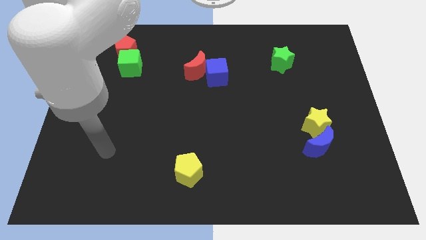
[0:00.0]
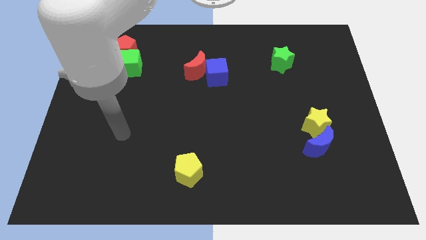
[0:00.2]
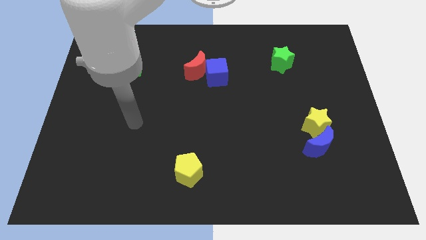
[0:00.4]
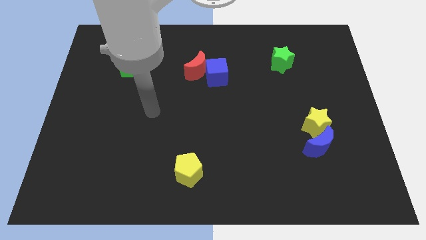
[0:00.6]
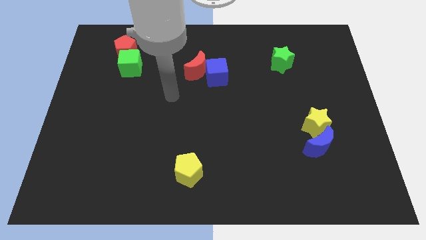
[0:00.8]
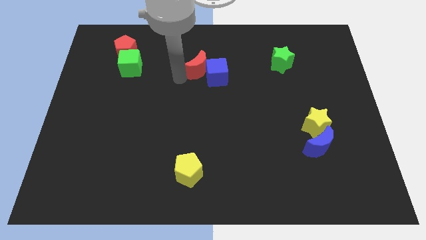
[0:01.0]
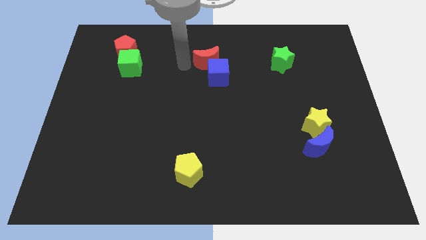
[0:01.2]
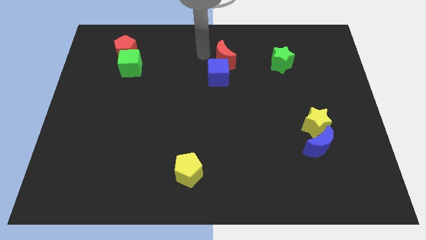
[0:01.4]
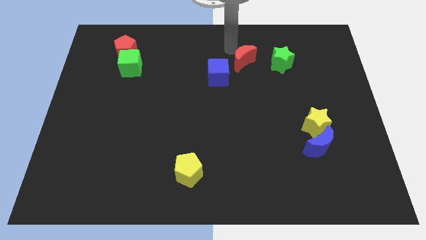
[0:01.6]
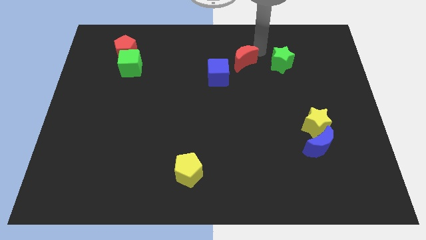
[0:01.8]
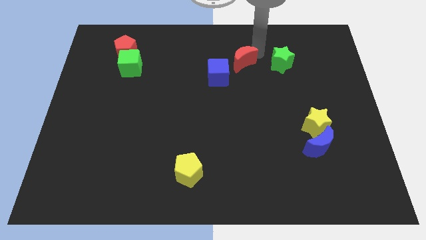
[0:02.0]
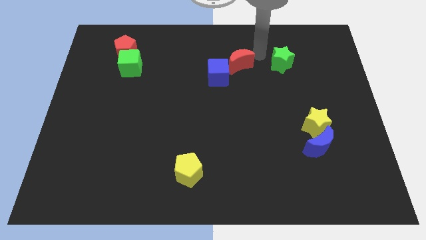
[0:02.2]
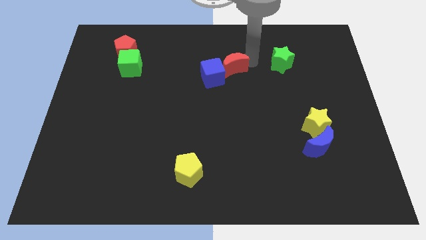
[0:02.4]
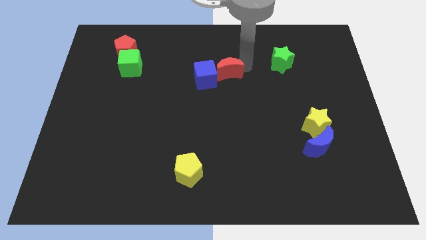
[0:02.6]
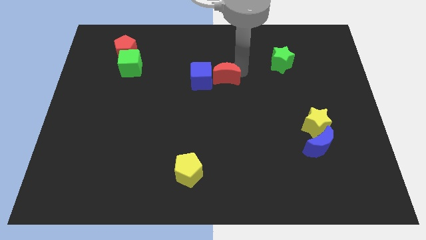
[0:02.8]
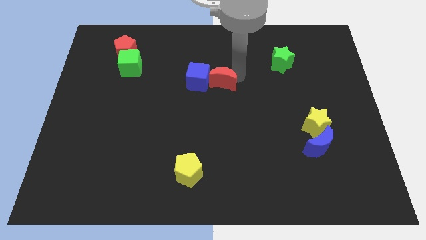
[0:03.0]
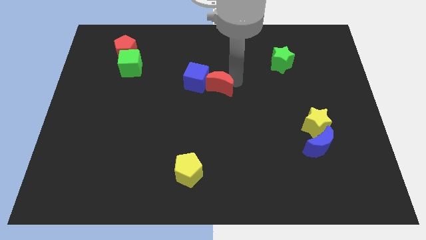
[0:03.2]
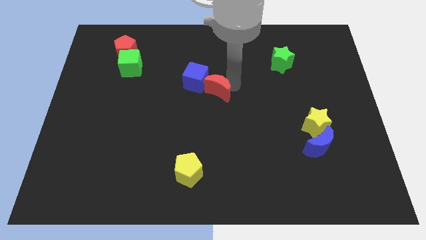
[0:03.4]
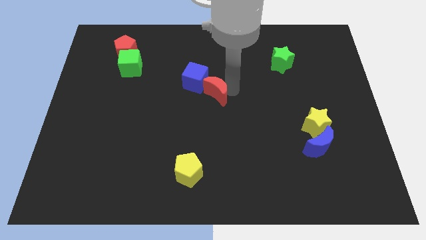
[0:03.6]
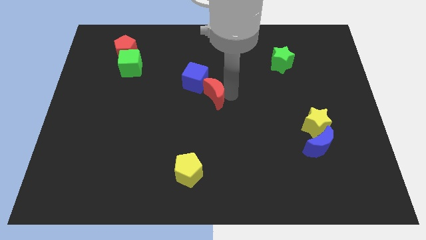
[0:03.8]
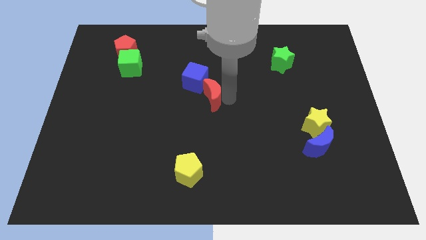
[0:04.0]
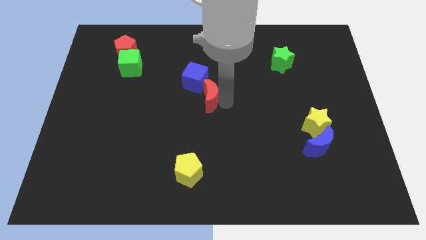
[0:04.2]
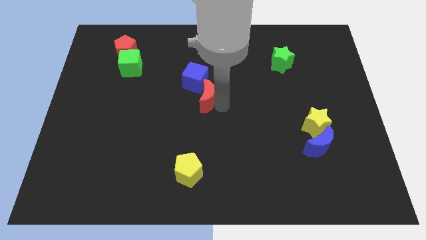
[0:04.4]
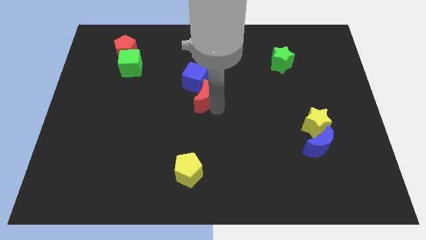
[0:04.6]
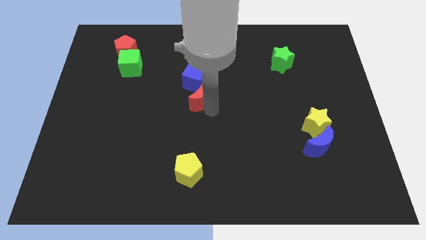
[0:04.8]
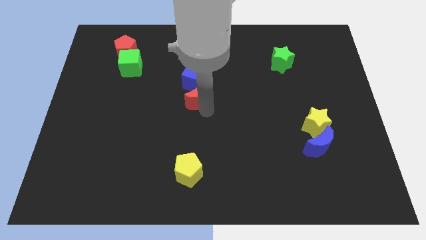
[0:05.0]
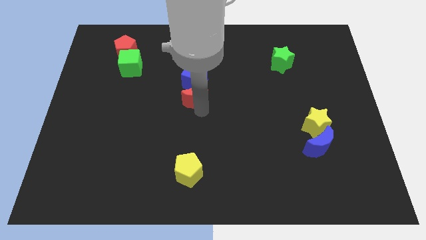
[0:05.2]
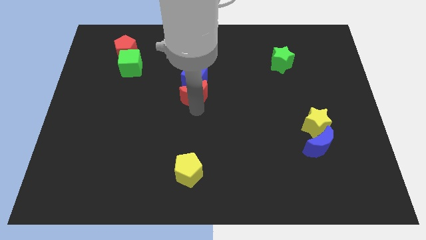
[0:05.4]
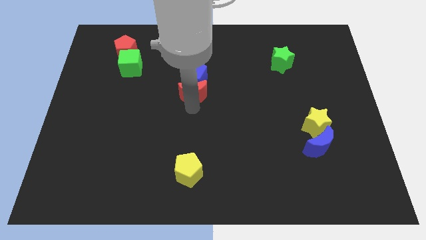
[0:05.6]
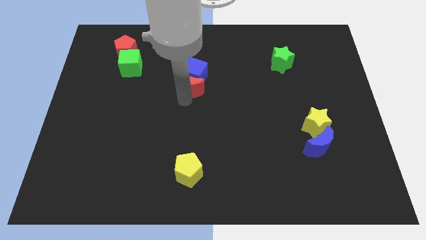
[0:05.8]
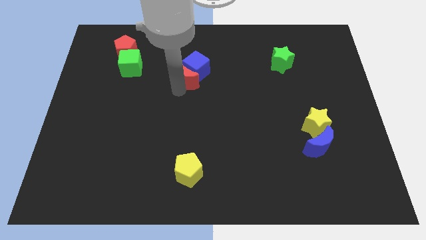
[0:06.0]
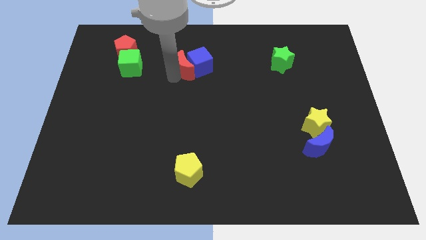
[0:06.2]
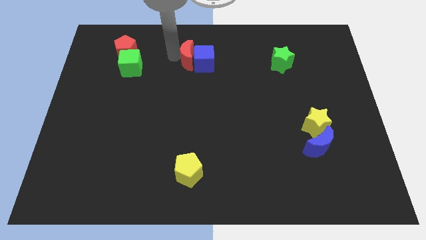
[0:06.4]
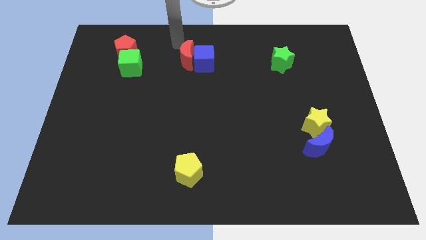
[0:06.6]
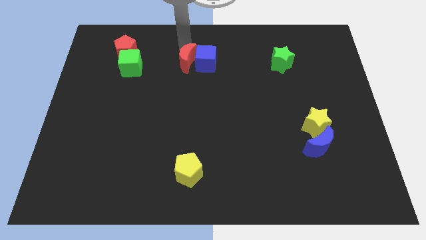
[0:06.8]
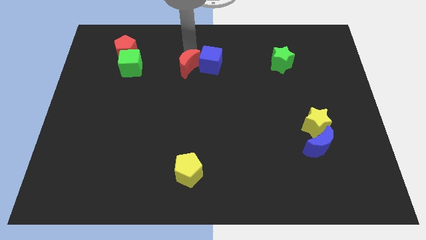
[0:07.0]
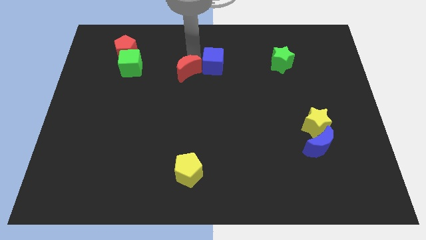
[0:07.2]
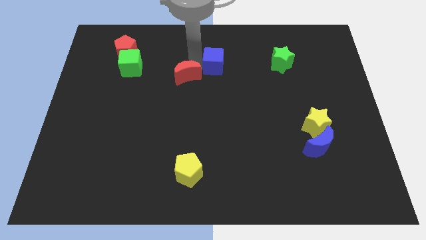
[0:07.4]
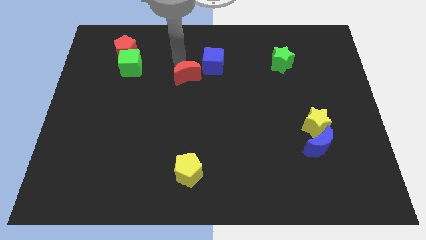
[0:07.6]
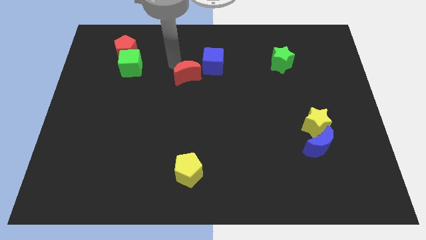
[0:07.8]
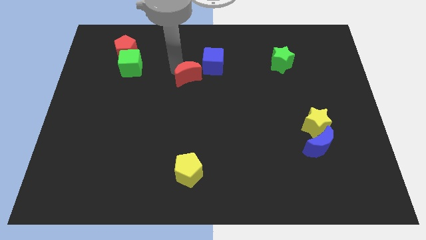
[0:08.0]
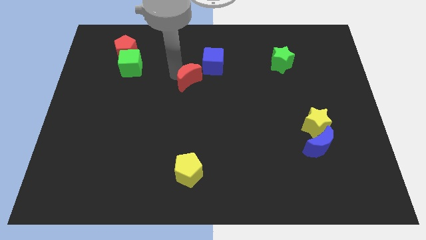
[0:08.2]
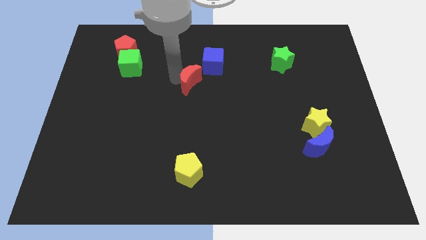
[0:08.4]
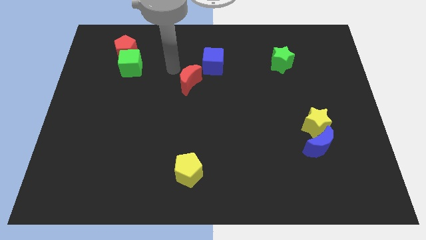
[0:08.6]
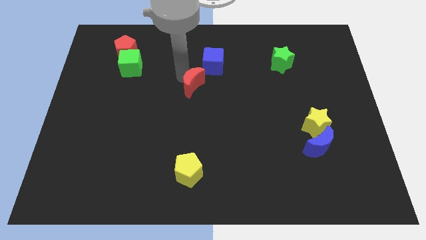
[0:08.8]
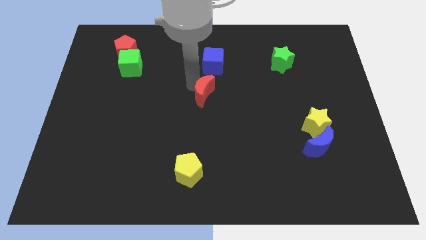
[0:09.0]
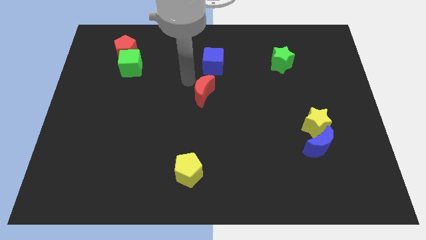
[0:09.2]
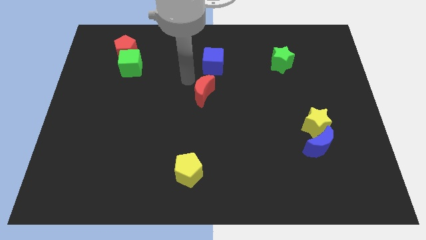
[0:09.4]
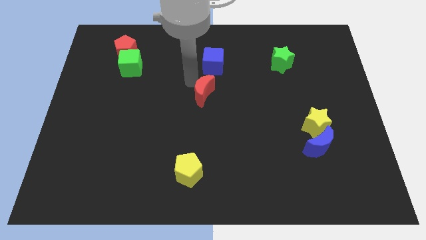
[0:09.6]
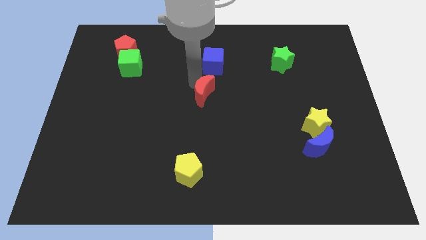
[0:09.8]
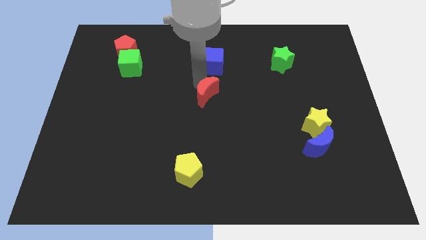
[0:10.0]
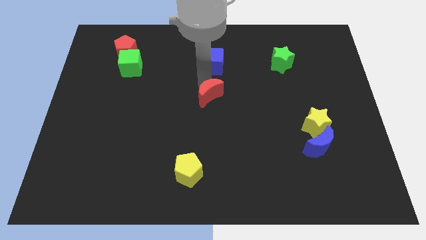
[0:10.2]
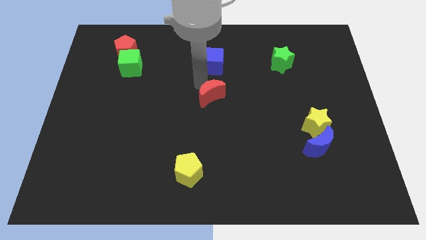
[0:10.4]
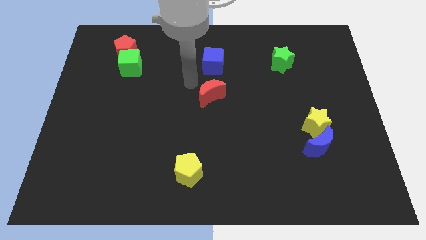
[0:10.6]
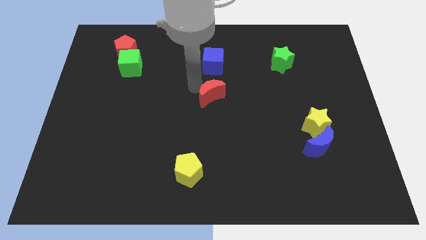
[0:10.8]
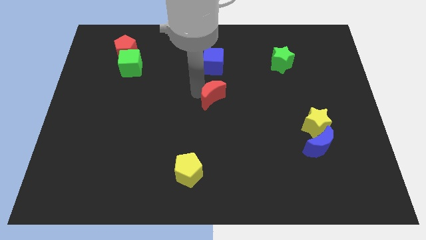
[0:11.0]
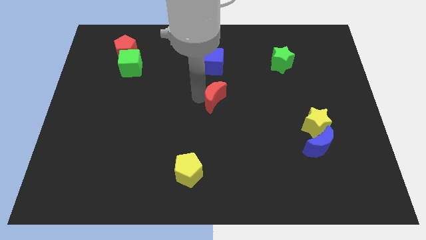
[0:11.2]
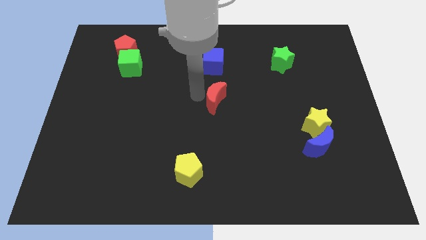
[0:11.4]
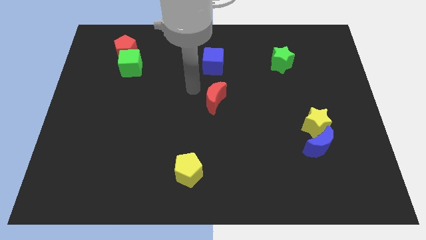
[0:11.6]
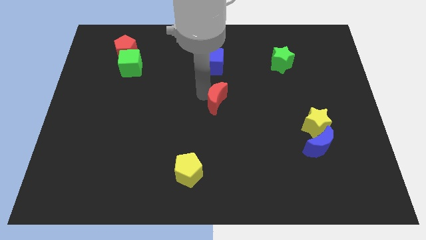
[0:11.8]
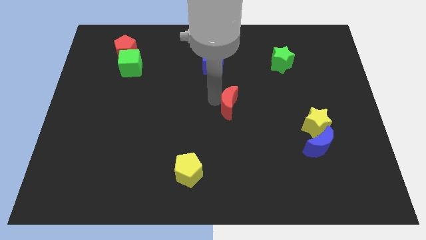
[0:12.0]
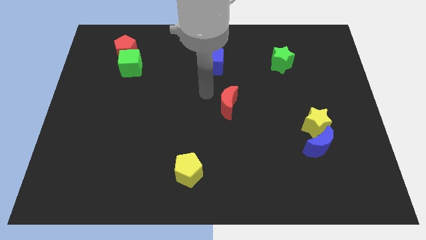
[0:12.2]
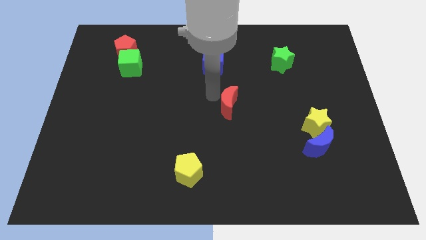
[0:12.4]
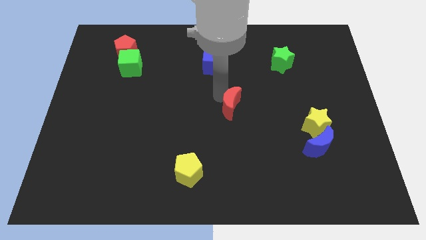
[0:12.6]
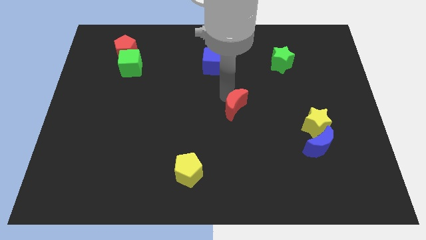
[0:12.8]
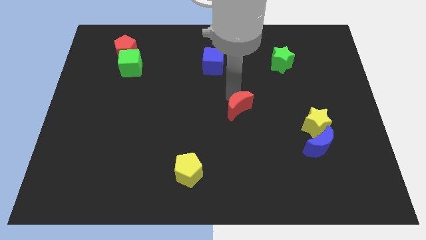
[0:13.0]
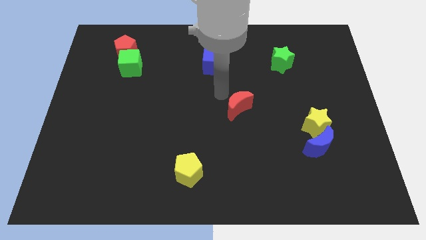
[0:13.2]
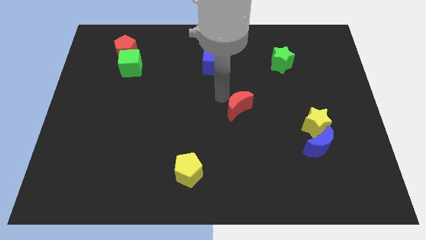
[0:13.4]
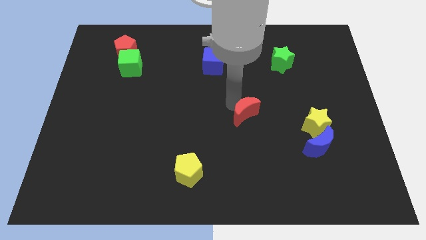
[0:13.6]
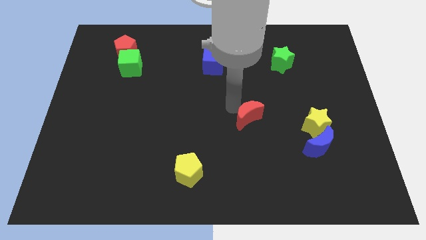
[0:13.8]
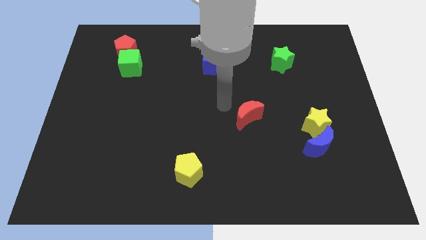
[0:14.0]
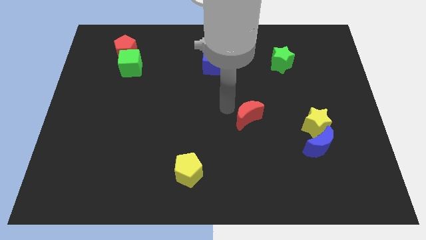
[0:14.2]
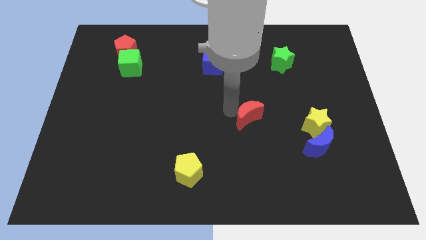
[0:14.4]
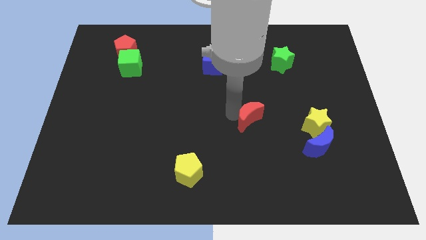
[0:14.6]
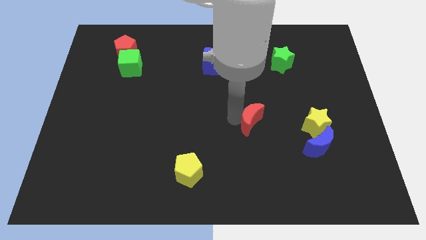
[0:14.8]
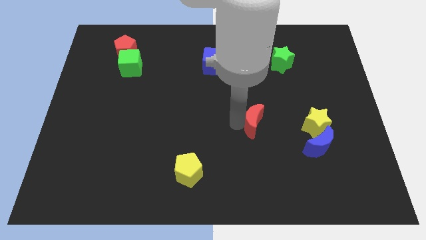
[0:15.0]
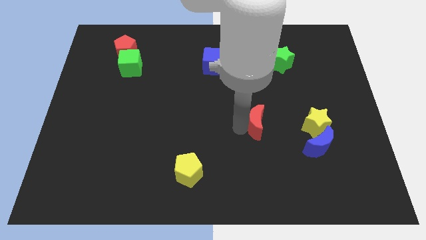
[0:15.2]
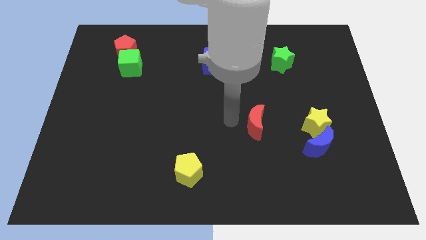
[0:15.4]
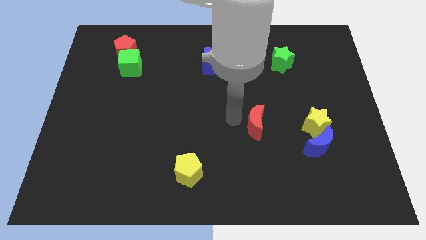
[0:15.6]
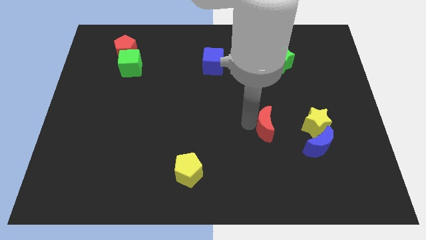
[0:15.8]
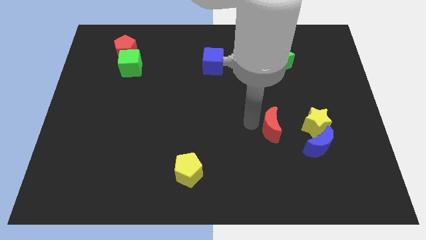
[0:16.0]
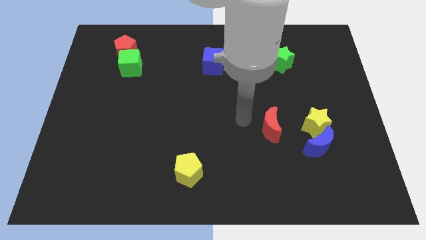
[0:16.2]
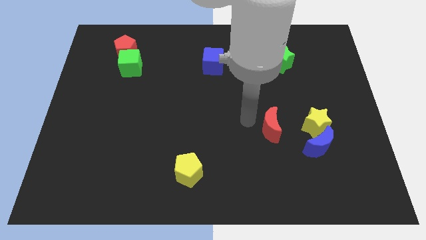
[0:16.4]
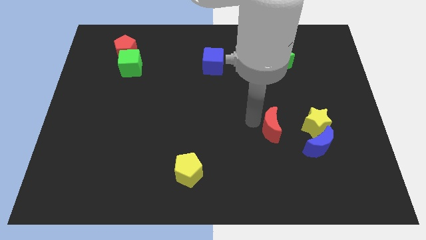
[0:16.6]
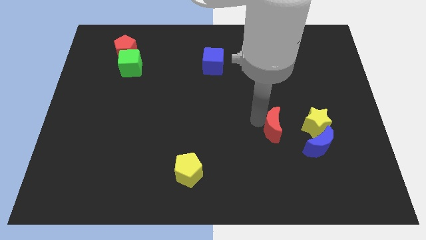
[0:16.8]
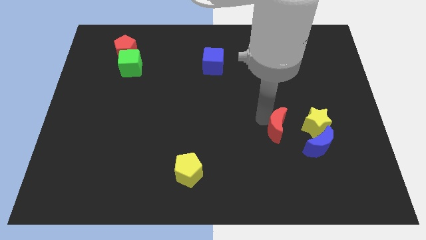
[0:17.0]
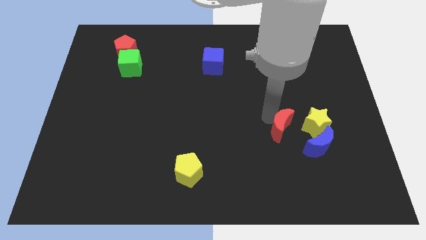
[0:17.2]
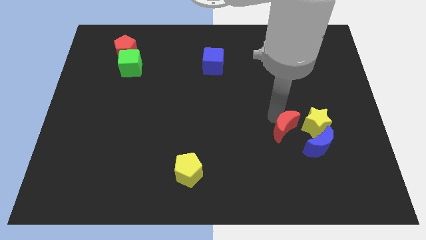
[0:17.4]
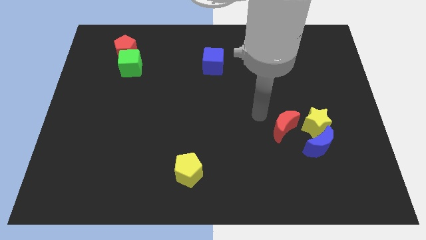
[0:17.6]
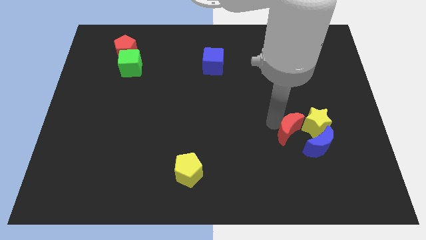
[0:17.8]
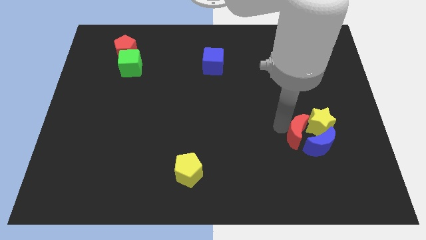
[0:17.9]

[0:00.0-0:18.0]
slide the red moon close to the blue moon
